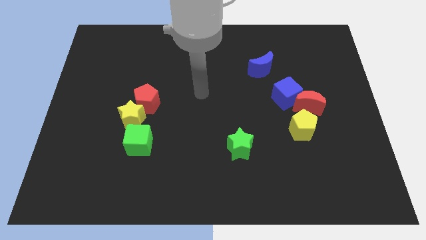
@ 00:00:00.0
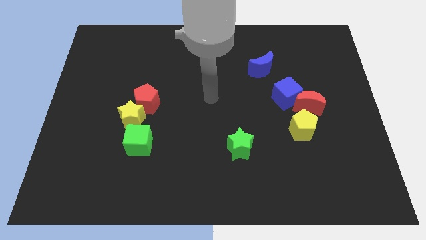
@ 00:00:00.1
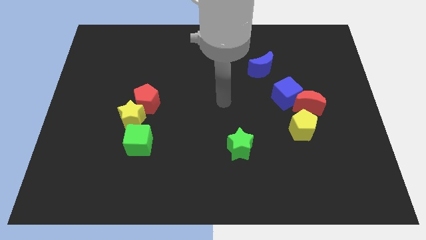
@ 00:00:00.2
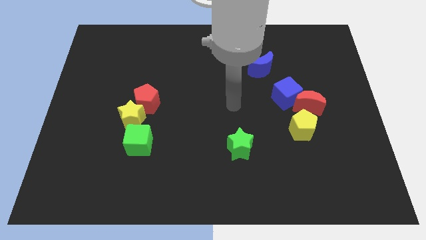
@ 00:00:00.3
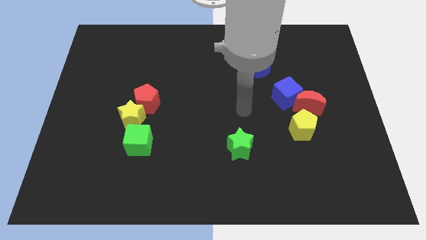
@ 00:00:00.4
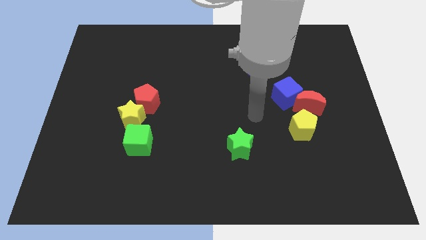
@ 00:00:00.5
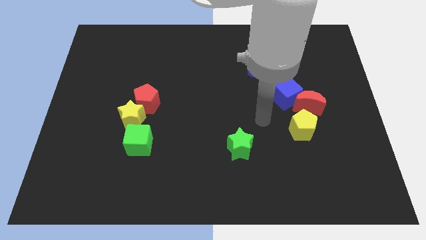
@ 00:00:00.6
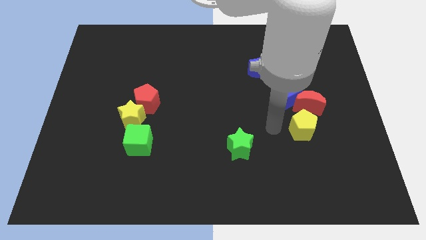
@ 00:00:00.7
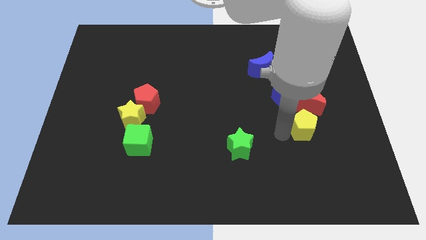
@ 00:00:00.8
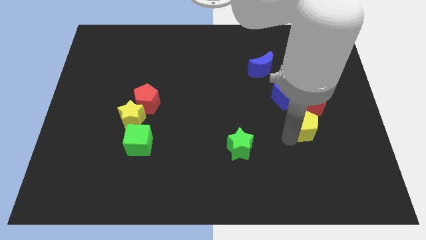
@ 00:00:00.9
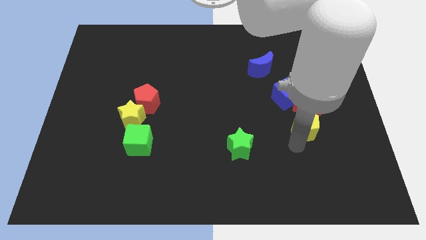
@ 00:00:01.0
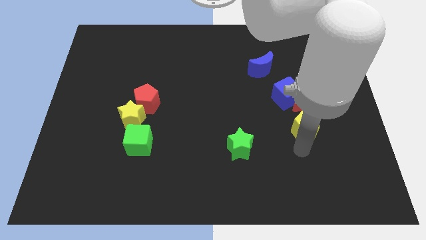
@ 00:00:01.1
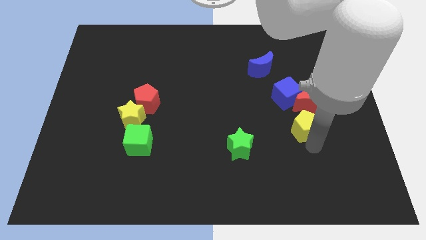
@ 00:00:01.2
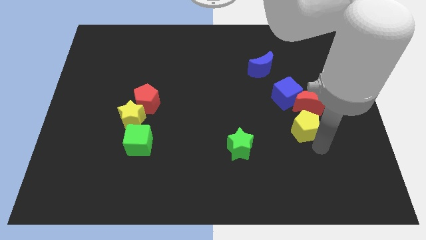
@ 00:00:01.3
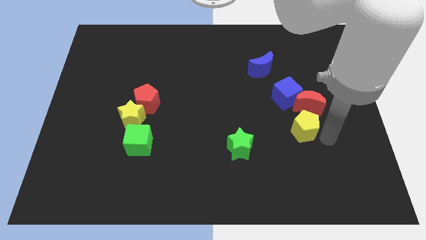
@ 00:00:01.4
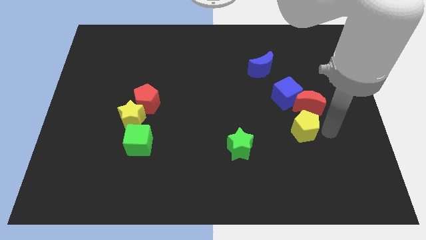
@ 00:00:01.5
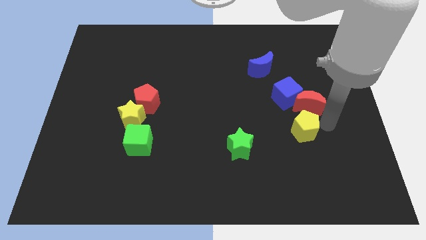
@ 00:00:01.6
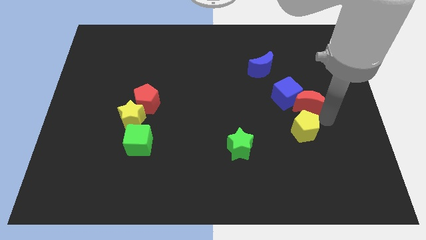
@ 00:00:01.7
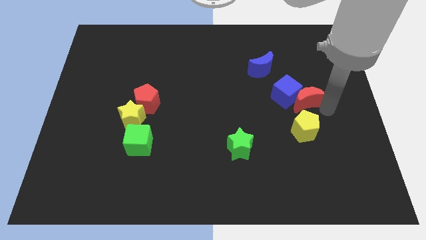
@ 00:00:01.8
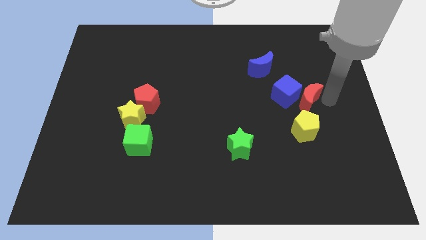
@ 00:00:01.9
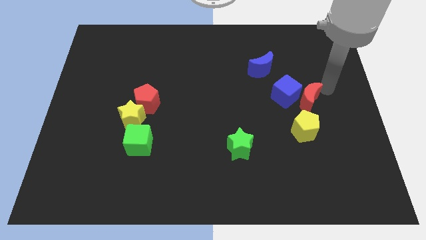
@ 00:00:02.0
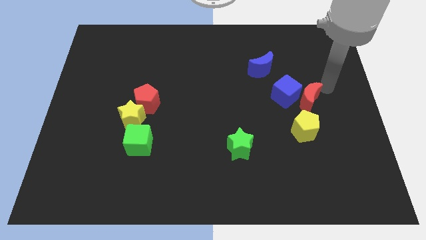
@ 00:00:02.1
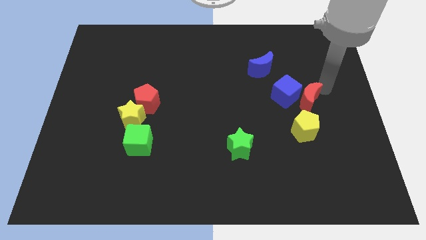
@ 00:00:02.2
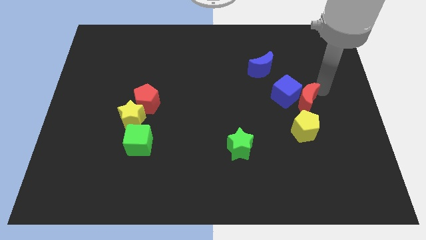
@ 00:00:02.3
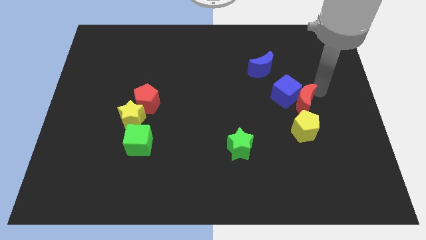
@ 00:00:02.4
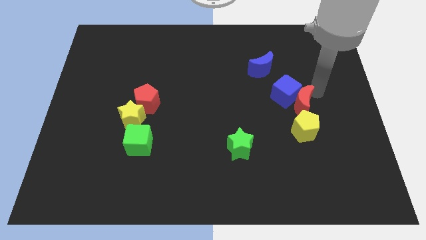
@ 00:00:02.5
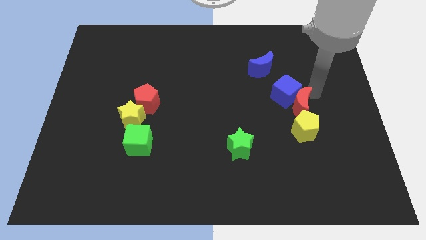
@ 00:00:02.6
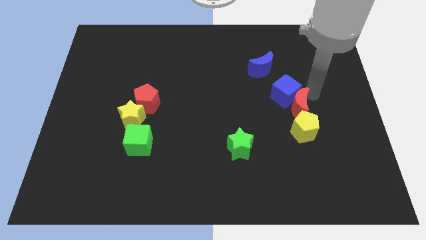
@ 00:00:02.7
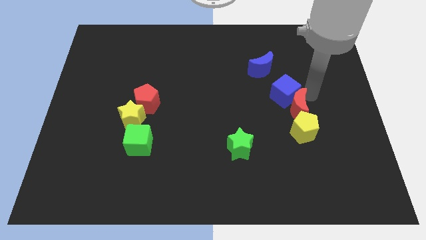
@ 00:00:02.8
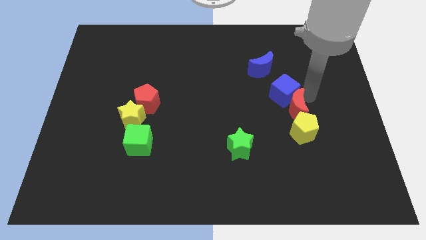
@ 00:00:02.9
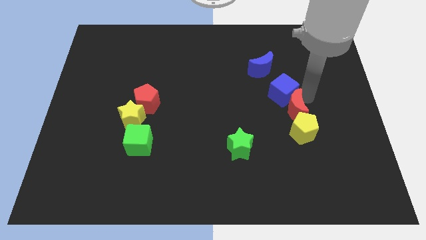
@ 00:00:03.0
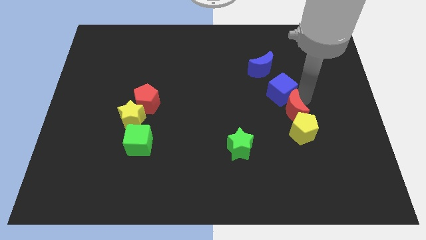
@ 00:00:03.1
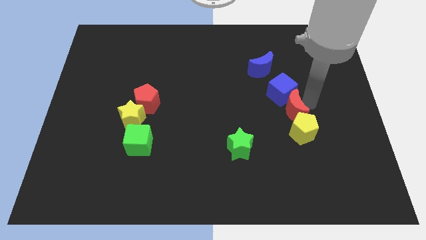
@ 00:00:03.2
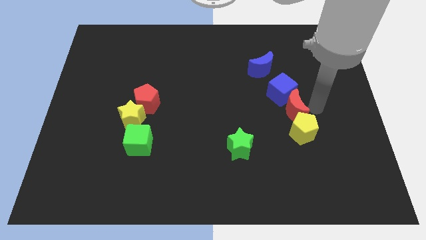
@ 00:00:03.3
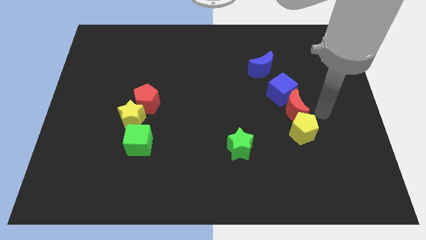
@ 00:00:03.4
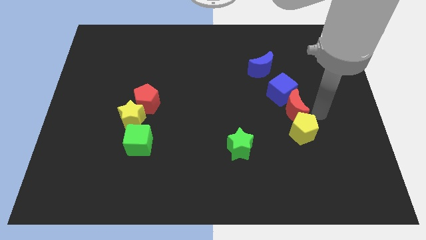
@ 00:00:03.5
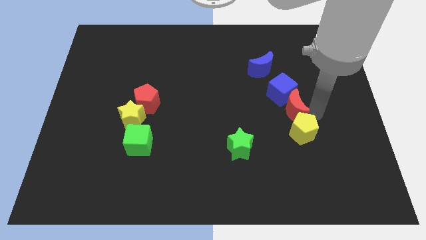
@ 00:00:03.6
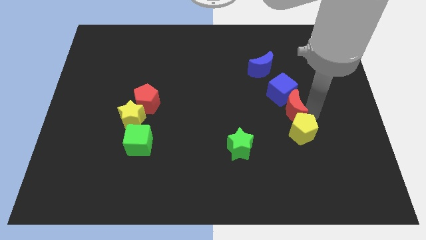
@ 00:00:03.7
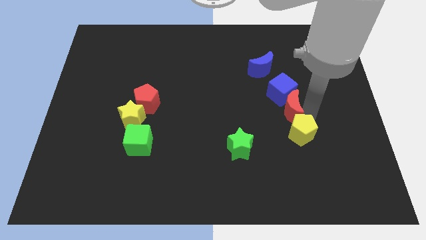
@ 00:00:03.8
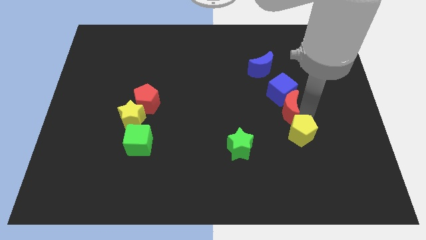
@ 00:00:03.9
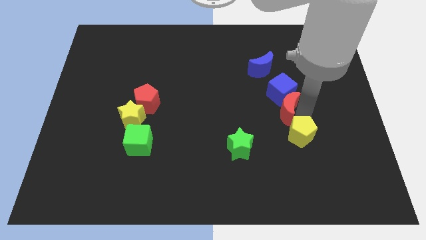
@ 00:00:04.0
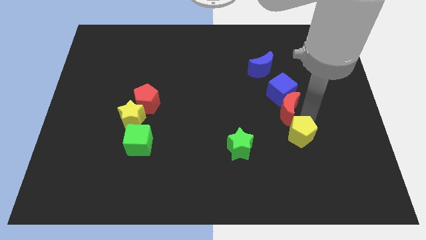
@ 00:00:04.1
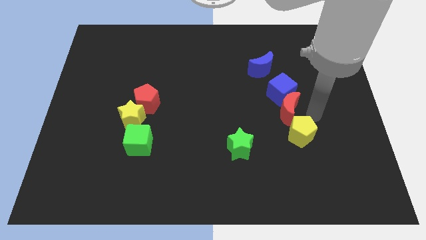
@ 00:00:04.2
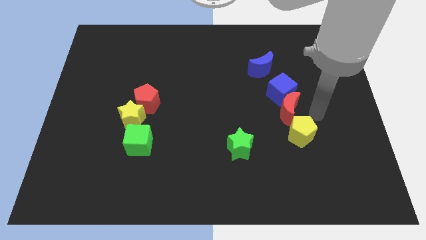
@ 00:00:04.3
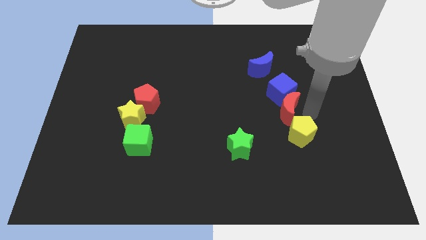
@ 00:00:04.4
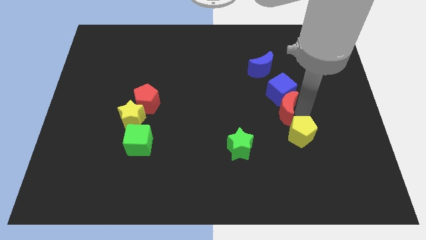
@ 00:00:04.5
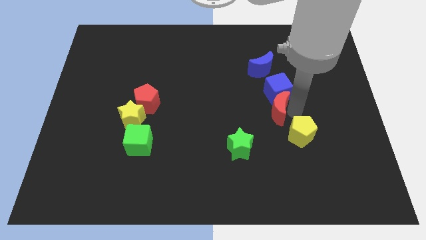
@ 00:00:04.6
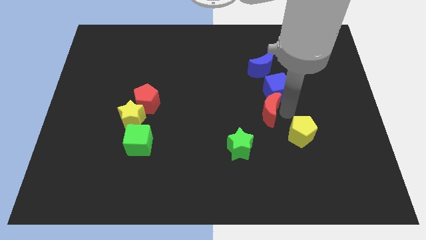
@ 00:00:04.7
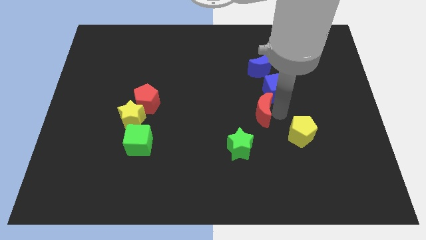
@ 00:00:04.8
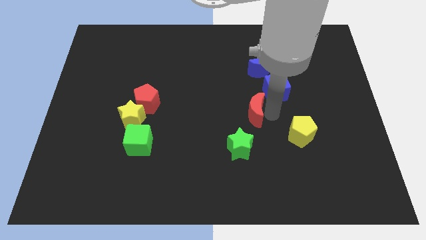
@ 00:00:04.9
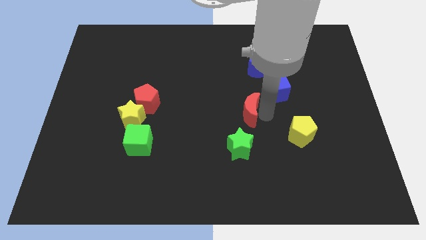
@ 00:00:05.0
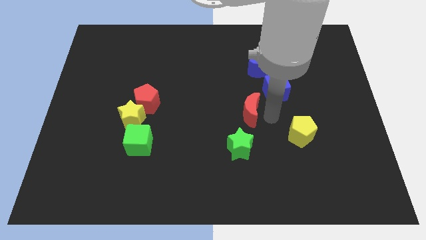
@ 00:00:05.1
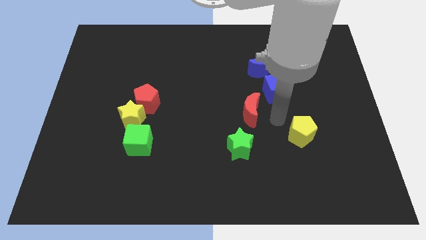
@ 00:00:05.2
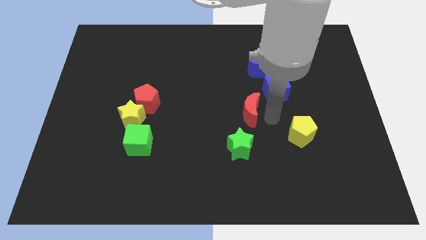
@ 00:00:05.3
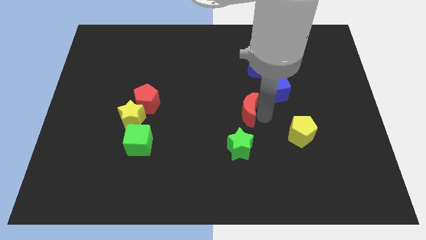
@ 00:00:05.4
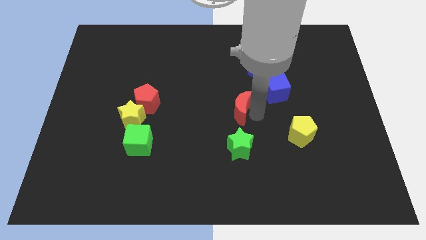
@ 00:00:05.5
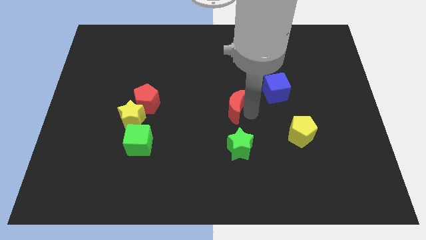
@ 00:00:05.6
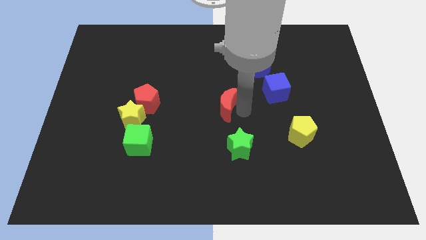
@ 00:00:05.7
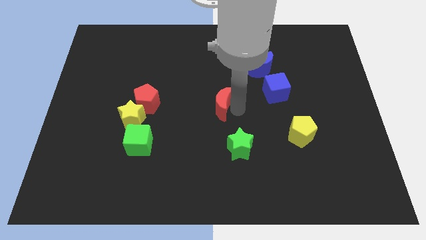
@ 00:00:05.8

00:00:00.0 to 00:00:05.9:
slide the red moon to the left

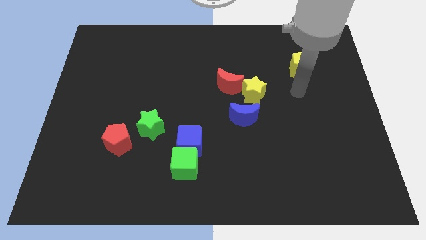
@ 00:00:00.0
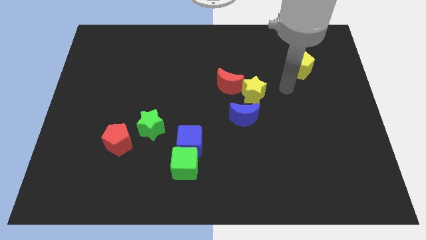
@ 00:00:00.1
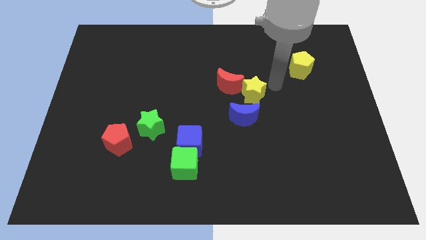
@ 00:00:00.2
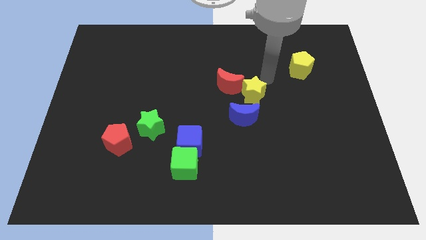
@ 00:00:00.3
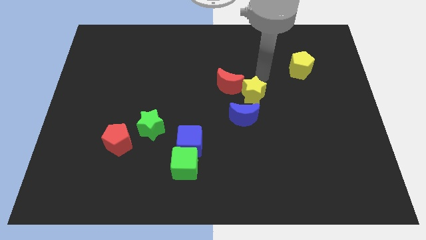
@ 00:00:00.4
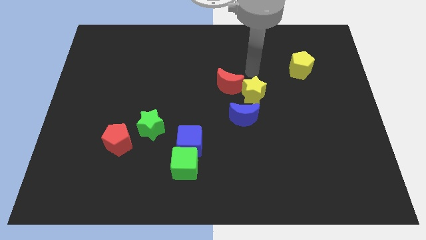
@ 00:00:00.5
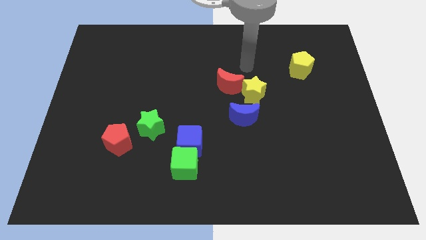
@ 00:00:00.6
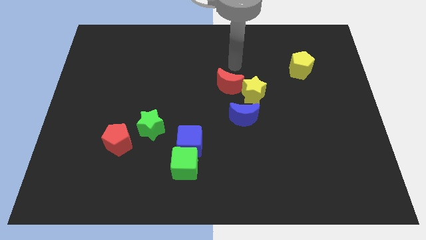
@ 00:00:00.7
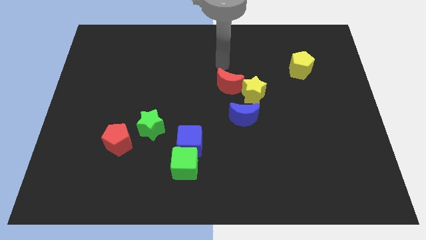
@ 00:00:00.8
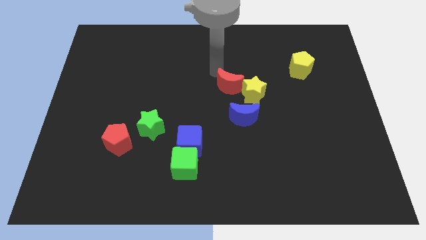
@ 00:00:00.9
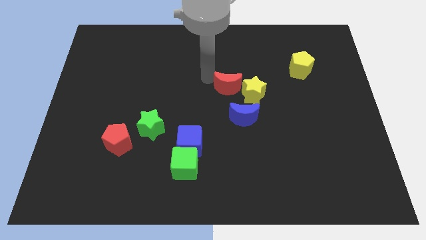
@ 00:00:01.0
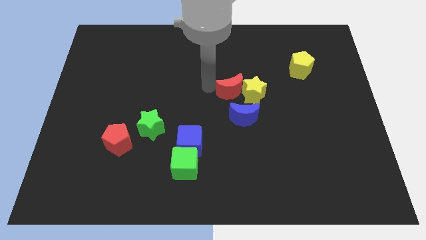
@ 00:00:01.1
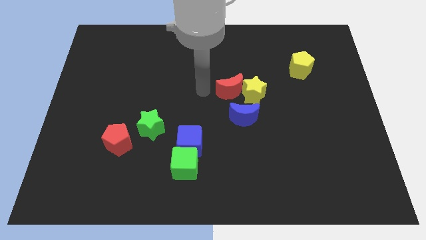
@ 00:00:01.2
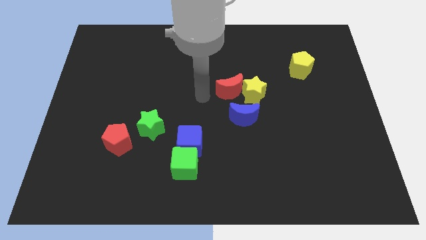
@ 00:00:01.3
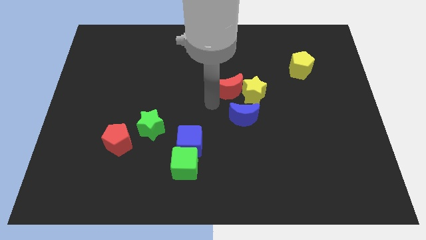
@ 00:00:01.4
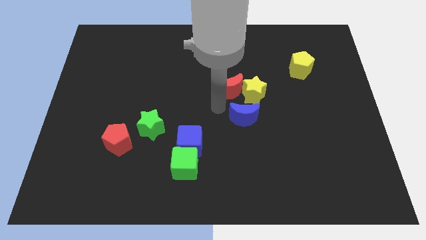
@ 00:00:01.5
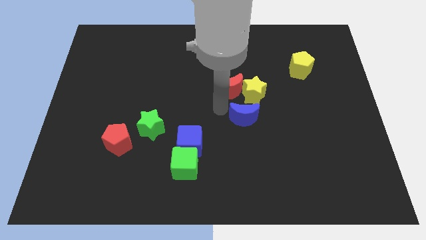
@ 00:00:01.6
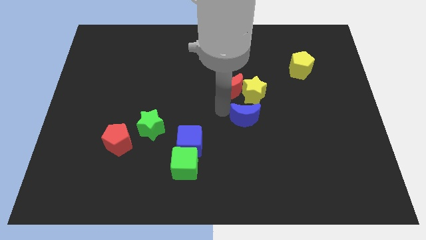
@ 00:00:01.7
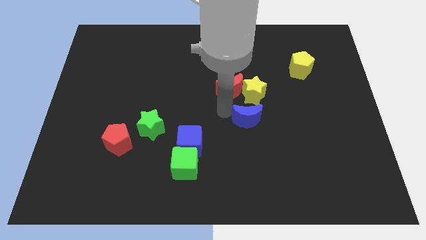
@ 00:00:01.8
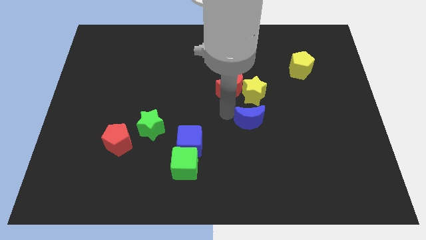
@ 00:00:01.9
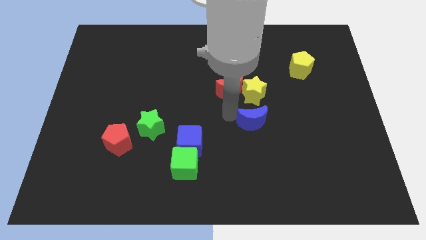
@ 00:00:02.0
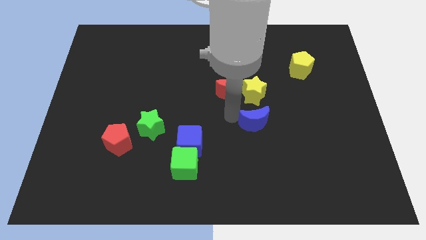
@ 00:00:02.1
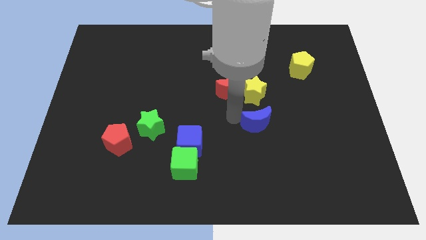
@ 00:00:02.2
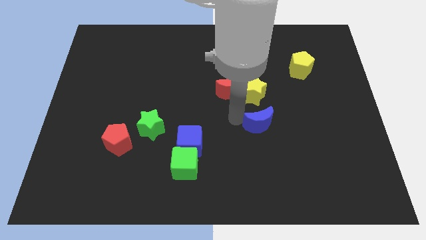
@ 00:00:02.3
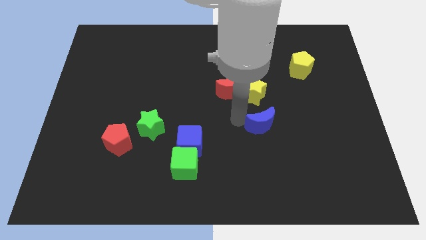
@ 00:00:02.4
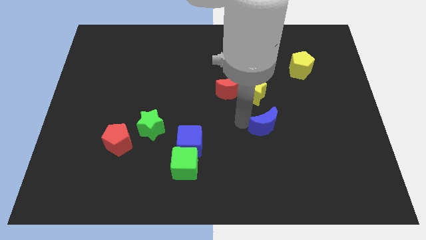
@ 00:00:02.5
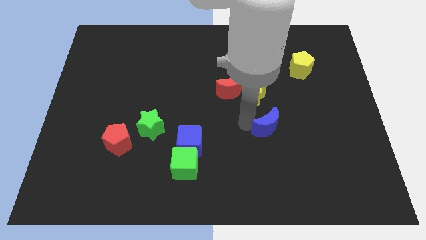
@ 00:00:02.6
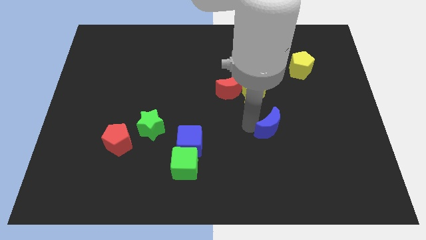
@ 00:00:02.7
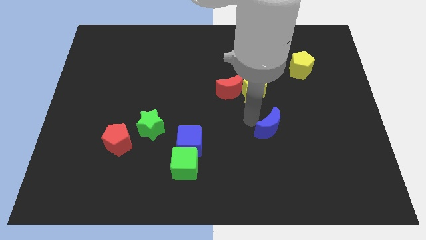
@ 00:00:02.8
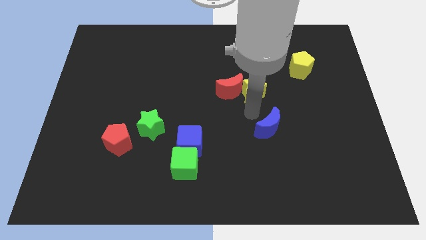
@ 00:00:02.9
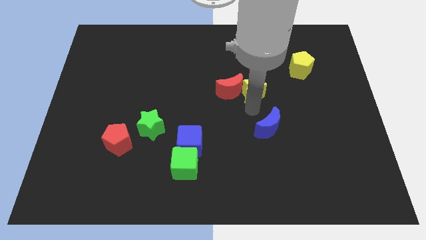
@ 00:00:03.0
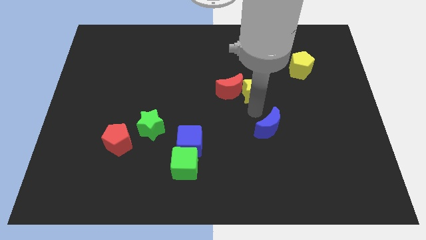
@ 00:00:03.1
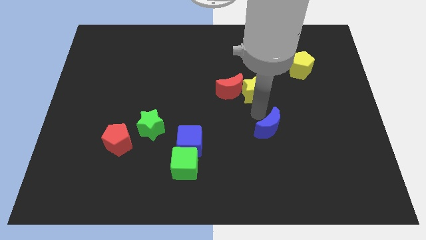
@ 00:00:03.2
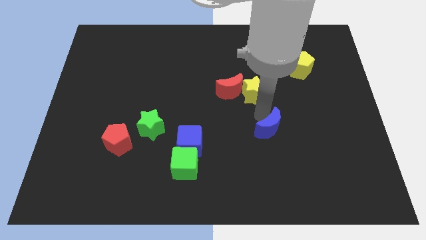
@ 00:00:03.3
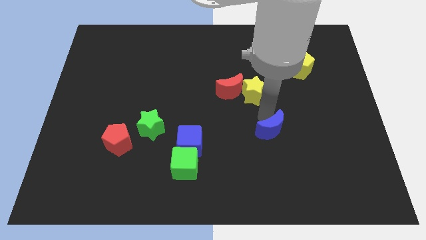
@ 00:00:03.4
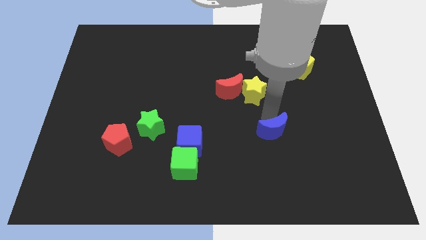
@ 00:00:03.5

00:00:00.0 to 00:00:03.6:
slide the blue moon a little bit downwards and right
